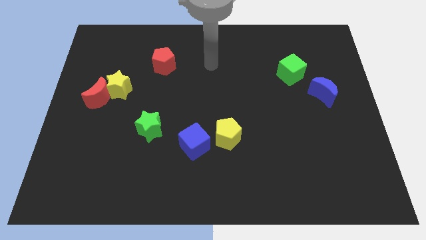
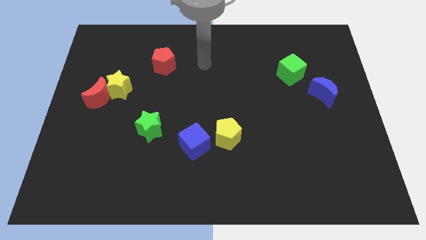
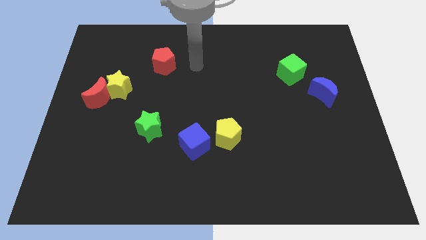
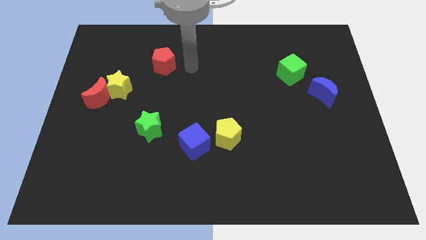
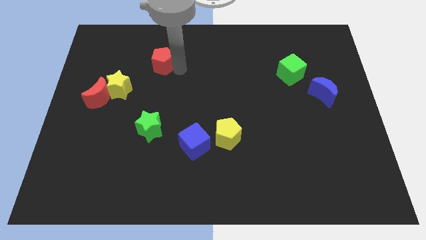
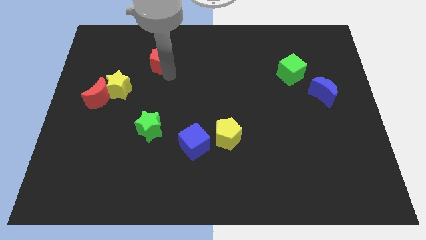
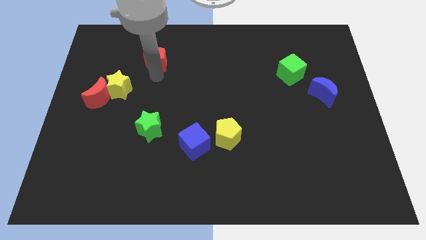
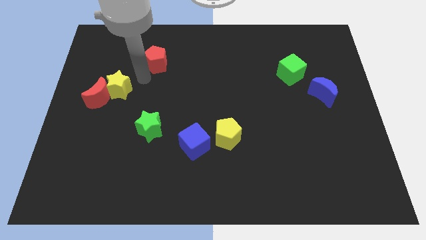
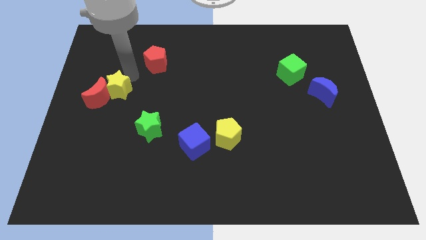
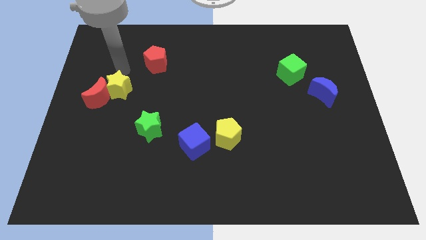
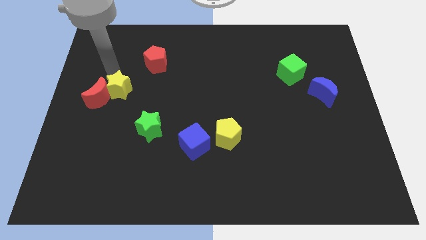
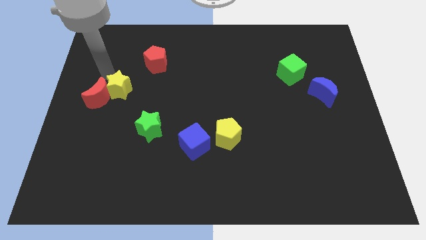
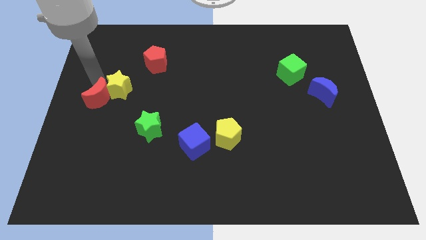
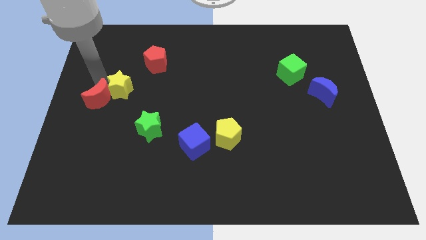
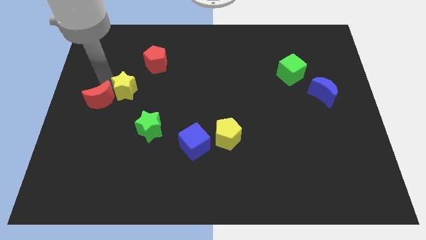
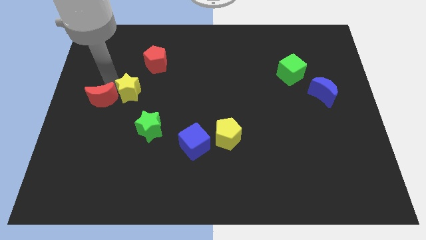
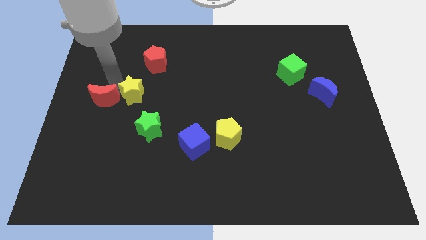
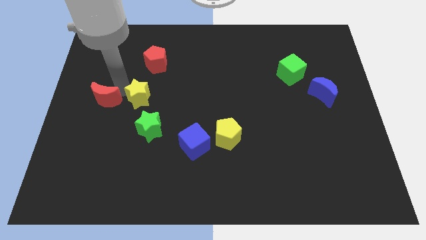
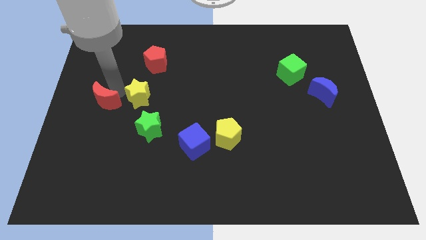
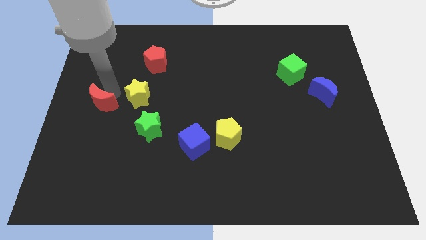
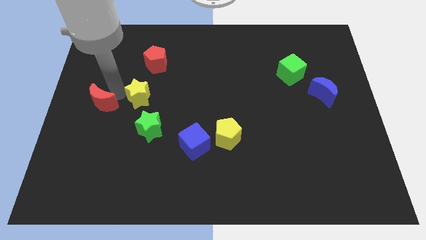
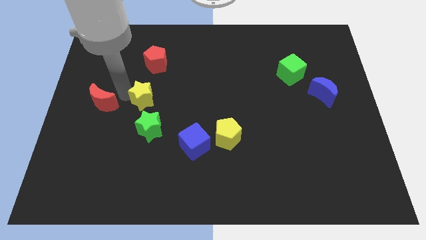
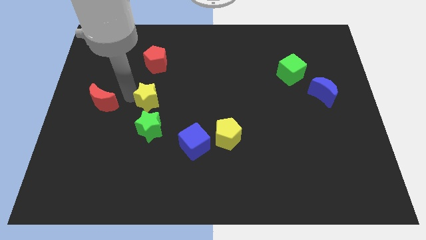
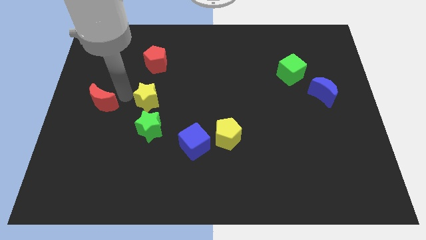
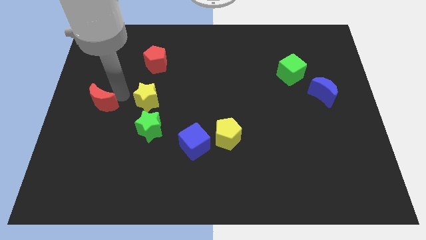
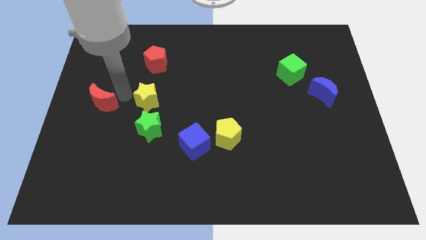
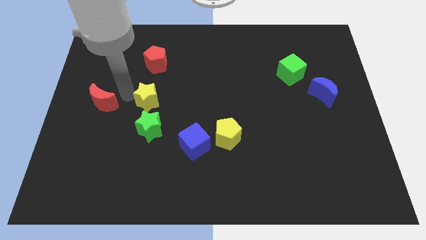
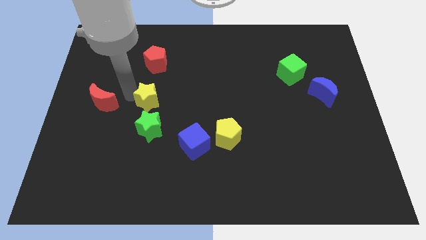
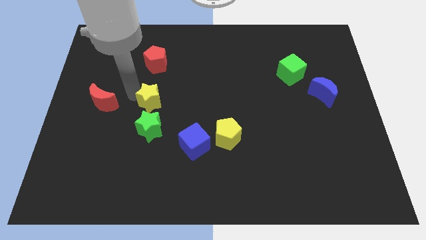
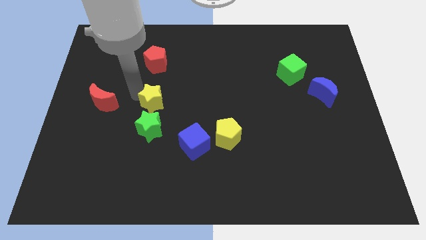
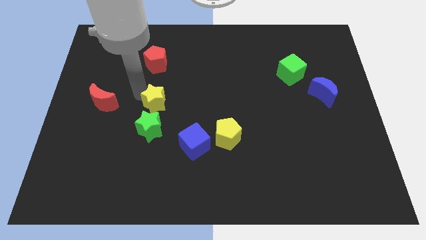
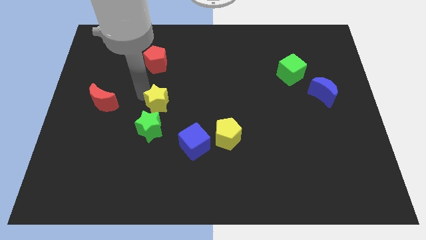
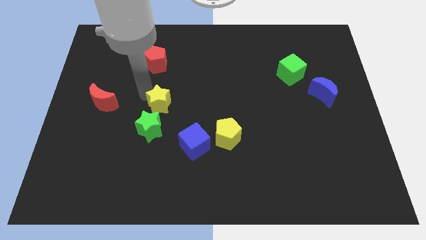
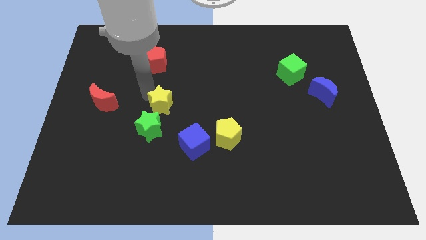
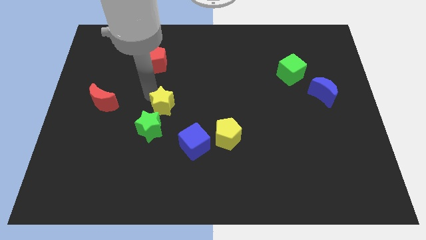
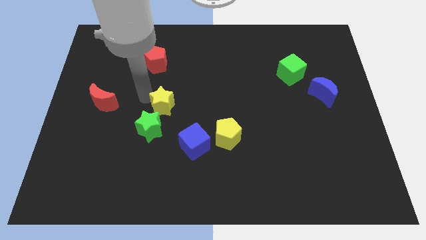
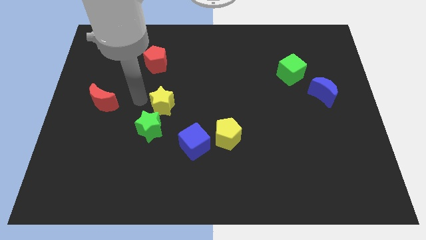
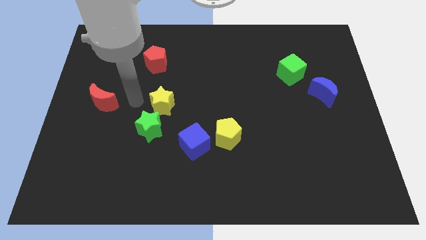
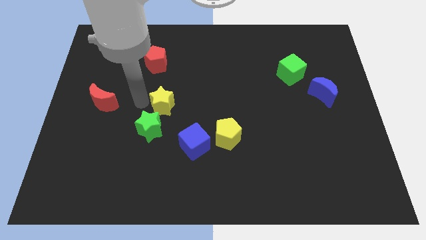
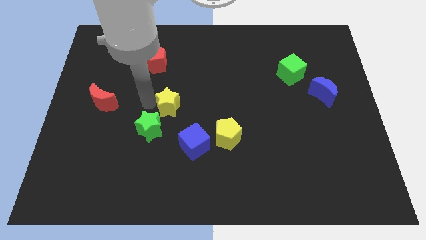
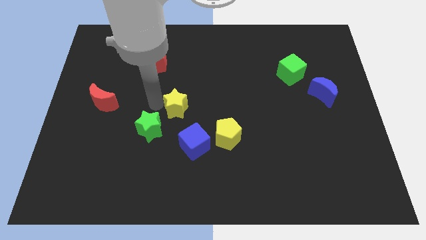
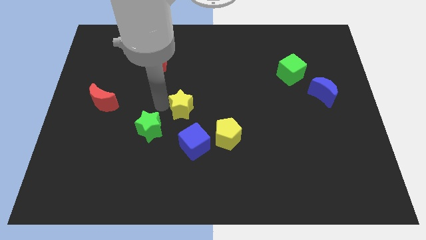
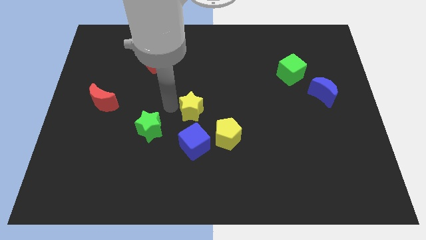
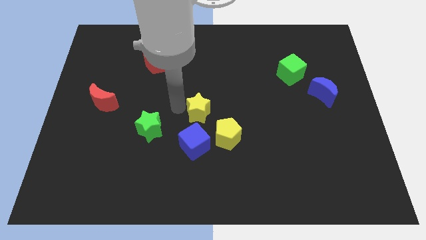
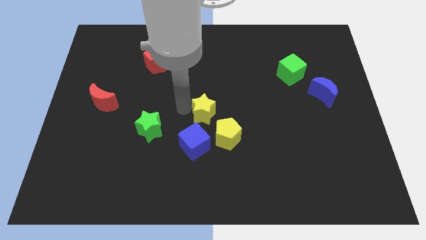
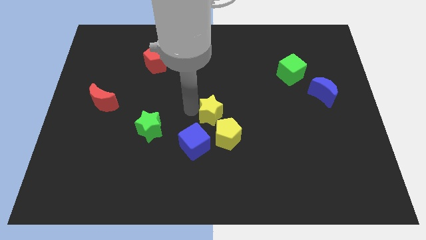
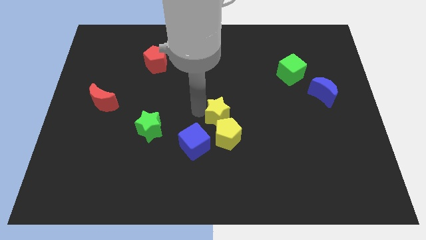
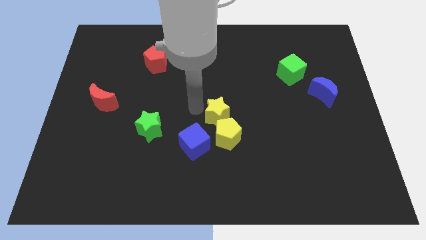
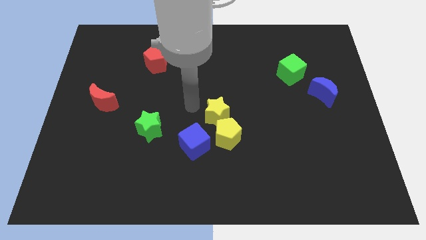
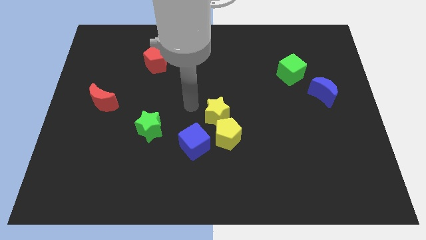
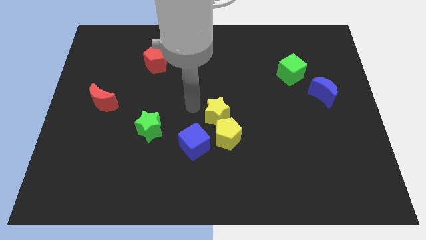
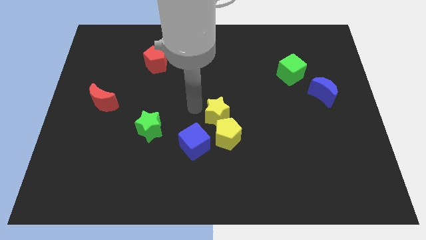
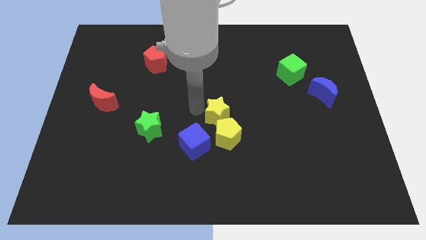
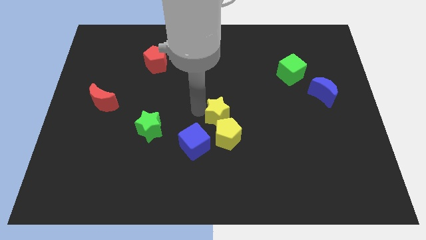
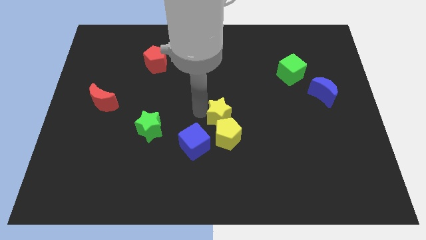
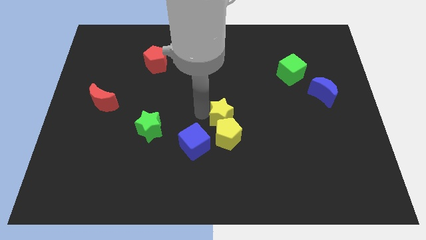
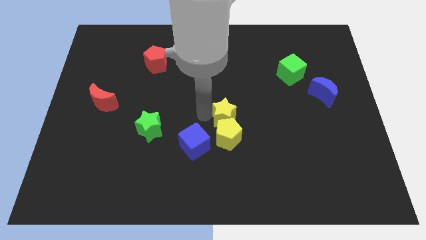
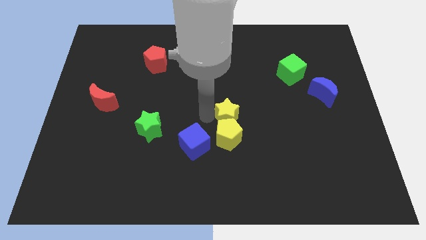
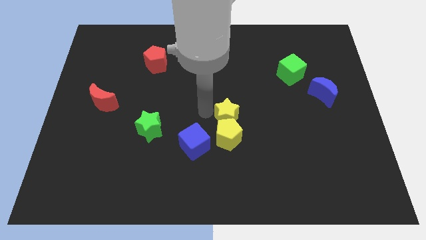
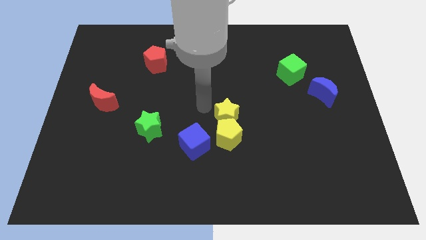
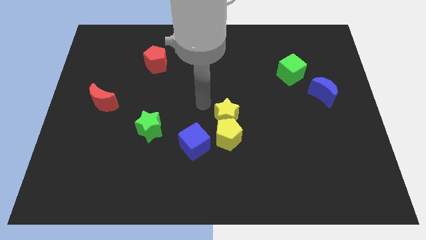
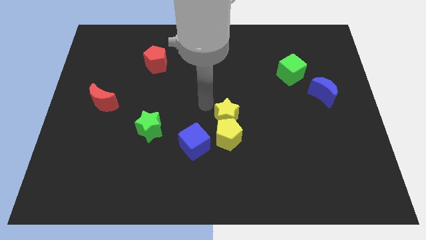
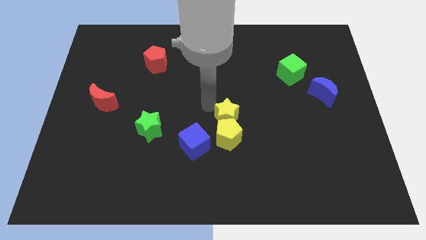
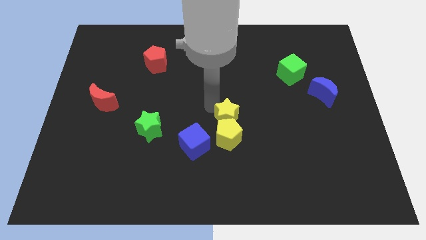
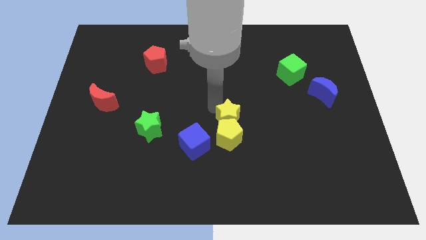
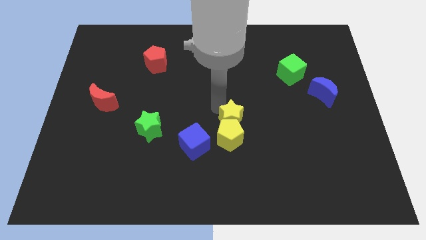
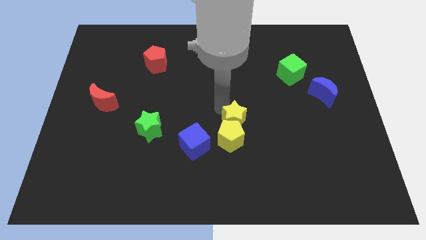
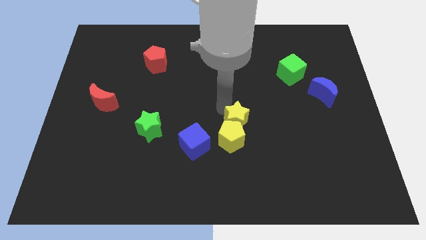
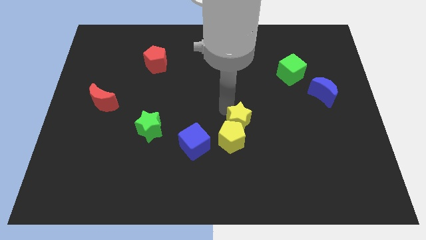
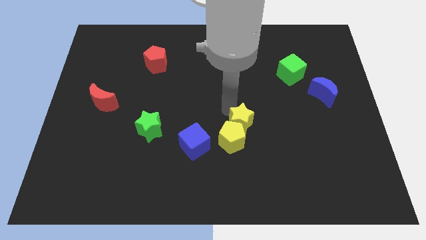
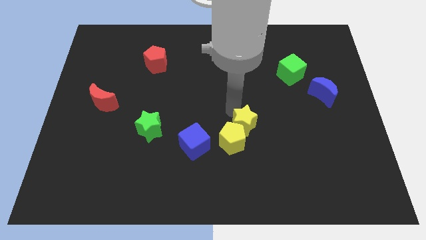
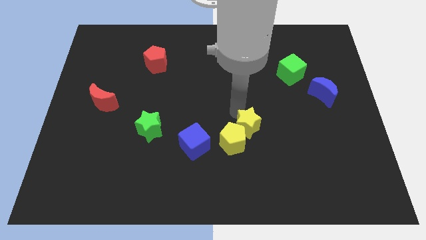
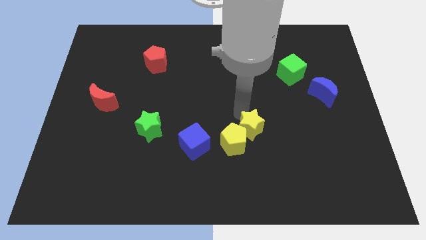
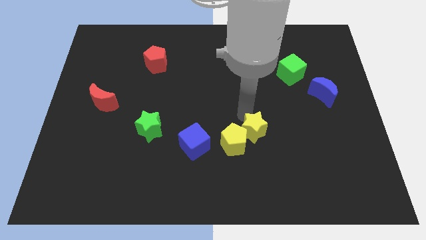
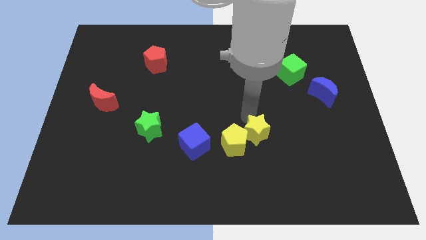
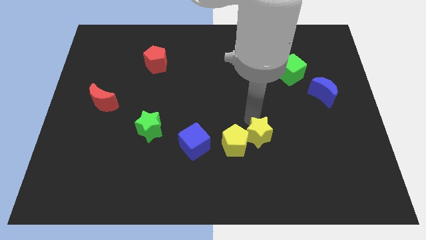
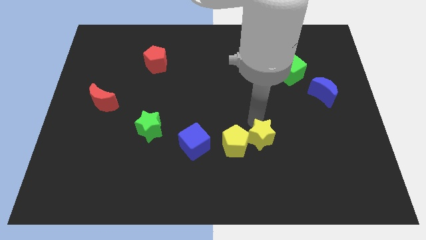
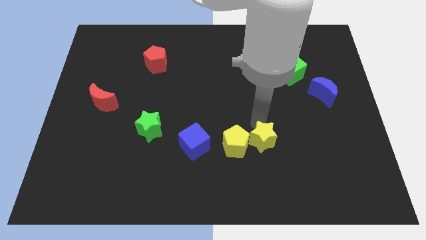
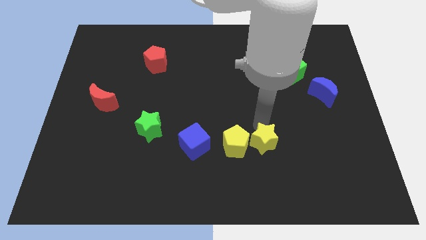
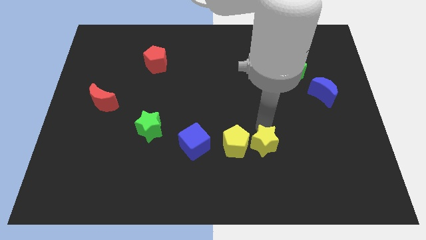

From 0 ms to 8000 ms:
slide the yellow star to the bottom right of the yellow pentagon
